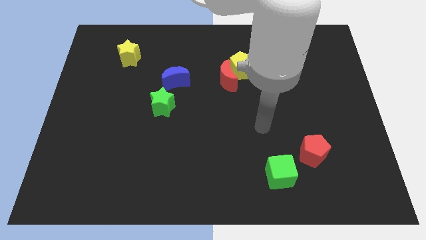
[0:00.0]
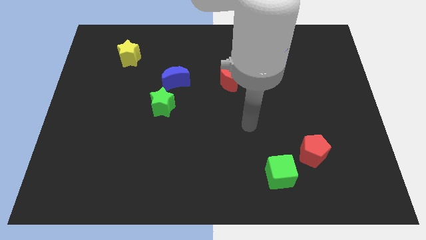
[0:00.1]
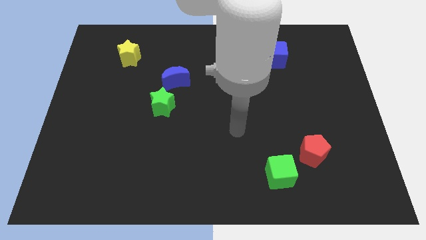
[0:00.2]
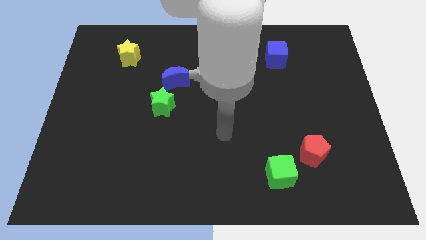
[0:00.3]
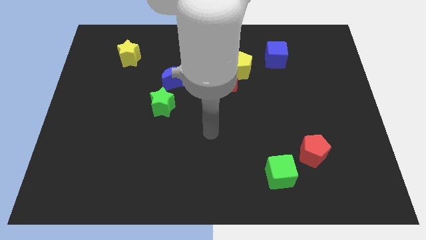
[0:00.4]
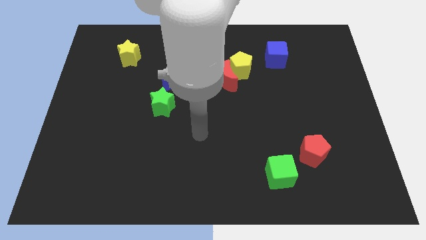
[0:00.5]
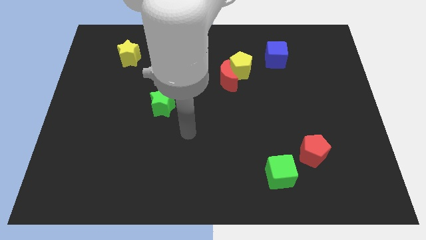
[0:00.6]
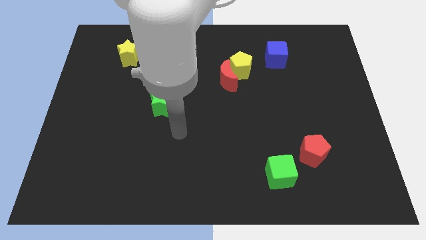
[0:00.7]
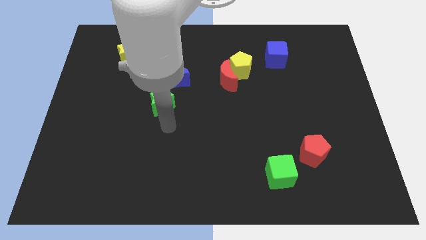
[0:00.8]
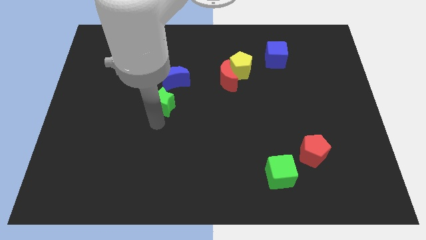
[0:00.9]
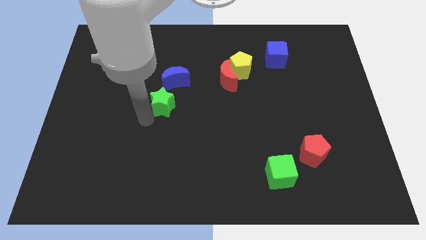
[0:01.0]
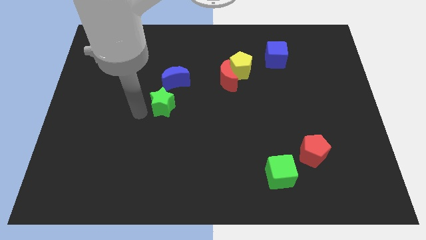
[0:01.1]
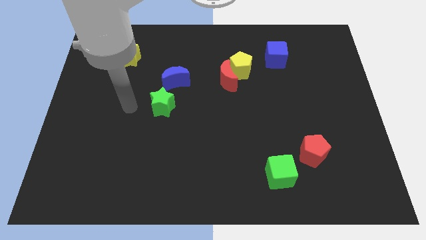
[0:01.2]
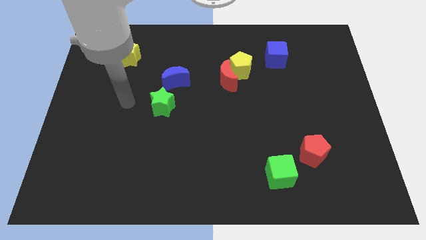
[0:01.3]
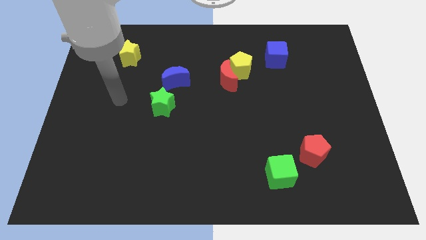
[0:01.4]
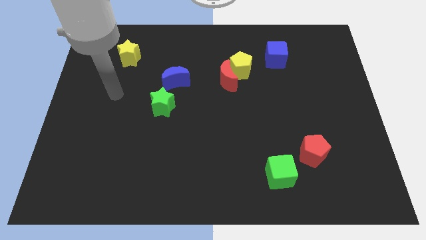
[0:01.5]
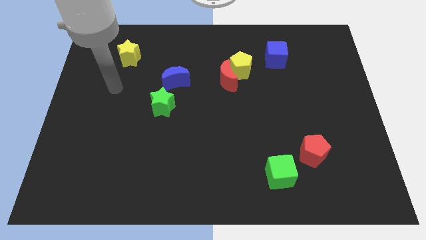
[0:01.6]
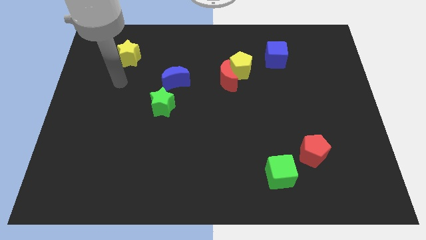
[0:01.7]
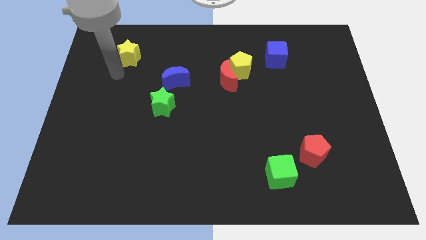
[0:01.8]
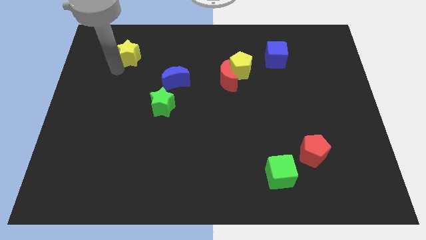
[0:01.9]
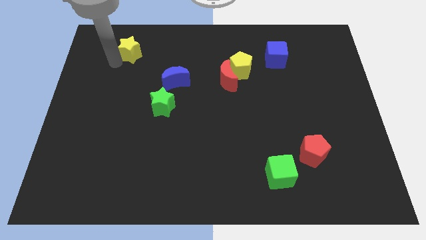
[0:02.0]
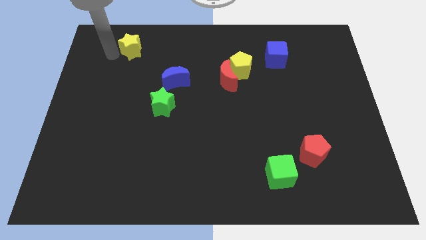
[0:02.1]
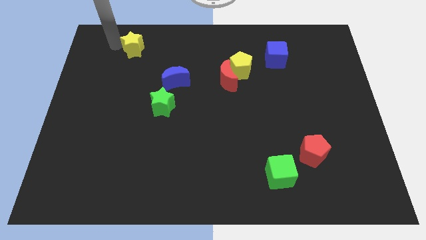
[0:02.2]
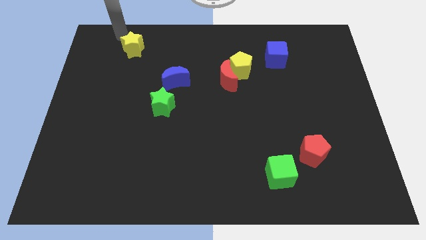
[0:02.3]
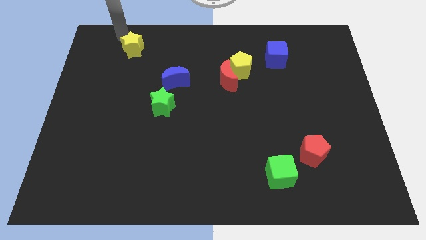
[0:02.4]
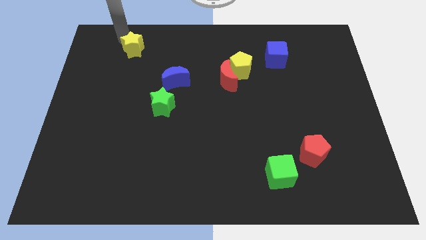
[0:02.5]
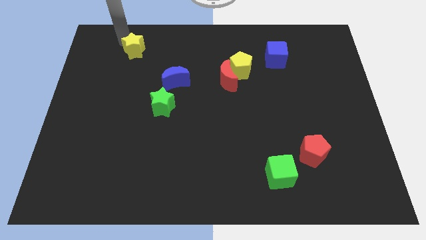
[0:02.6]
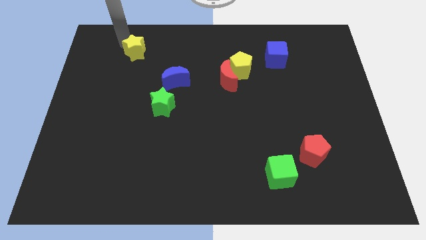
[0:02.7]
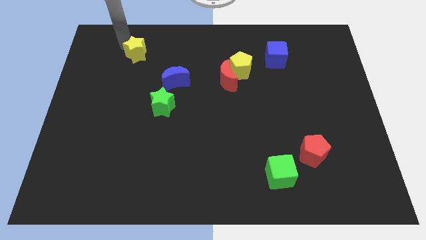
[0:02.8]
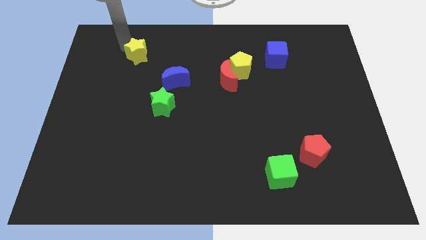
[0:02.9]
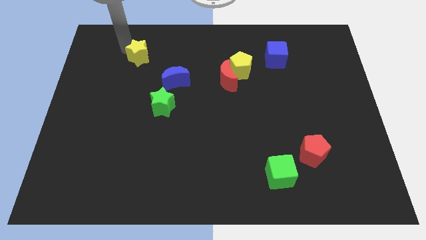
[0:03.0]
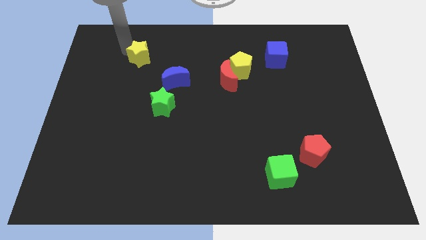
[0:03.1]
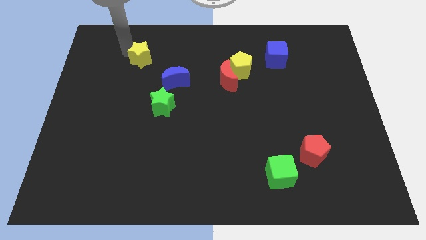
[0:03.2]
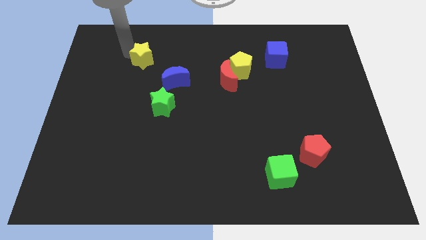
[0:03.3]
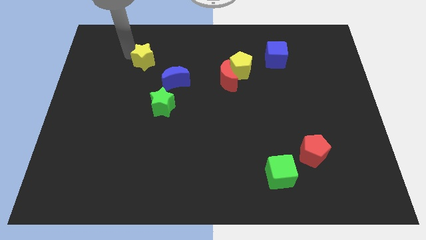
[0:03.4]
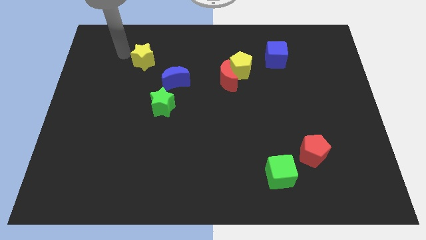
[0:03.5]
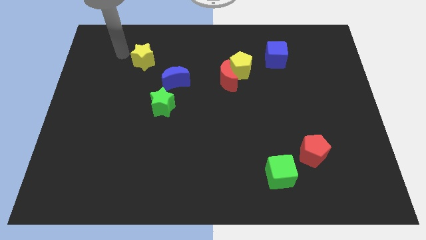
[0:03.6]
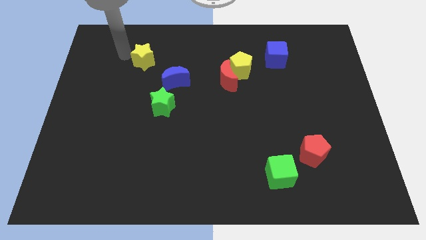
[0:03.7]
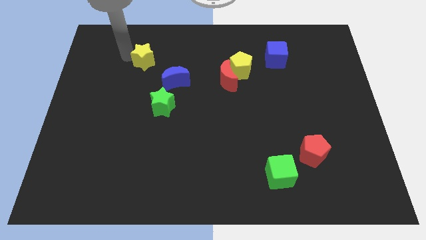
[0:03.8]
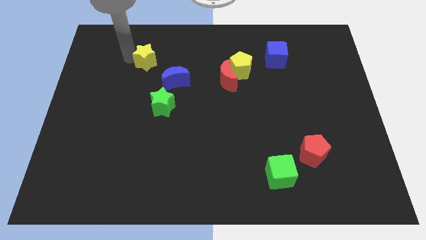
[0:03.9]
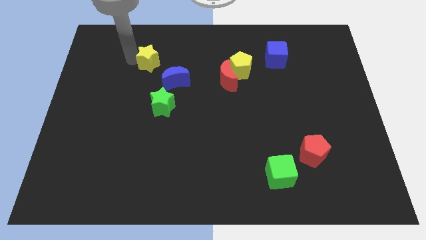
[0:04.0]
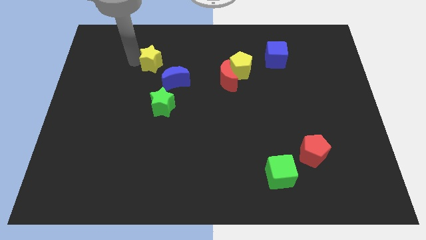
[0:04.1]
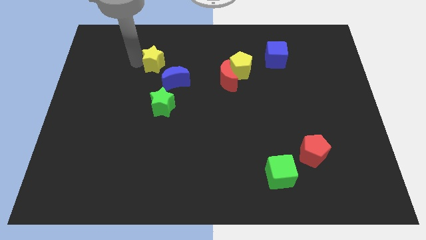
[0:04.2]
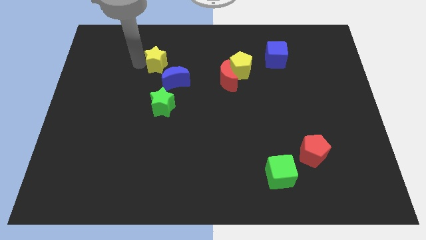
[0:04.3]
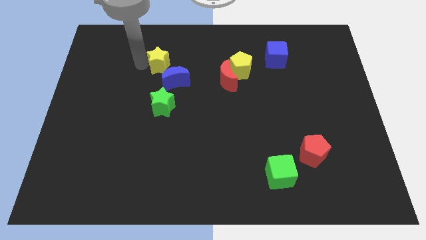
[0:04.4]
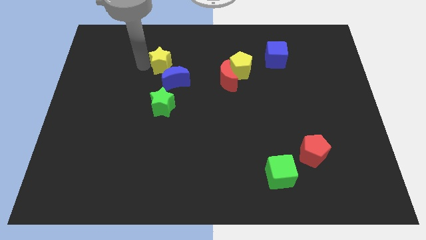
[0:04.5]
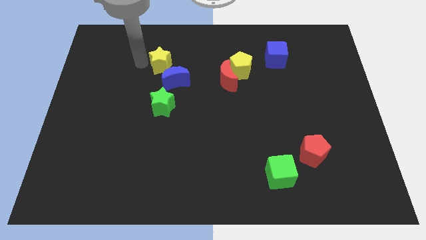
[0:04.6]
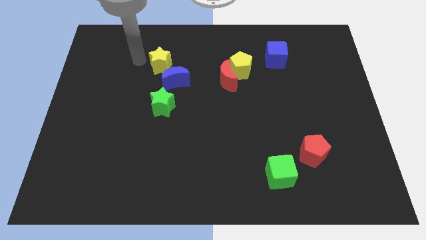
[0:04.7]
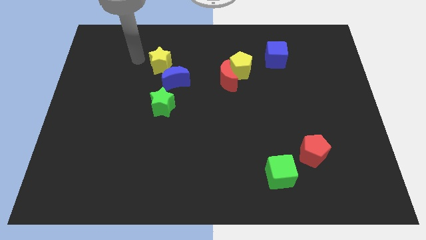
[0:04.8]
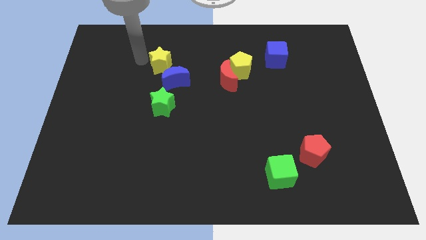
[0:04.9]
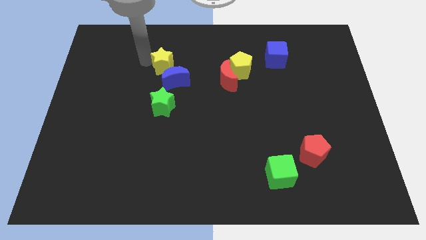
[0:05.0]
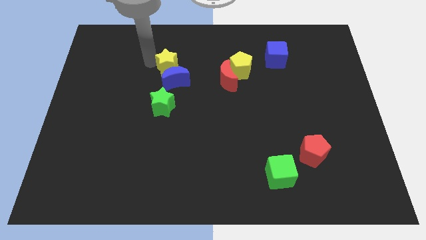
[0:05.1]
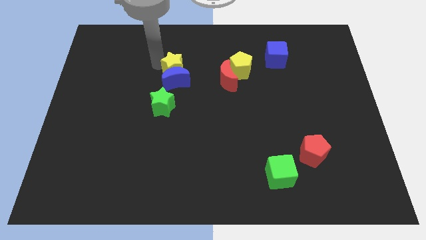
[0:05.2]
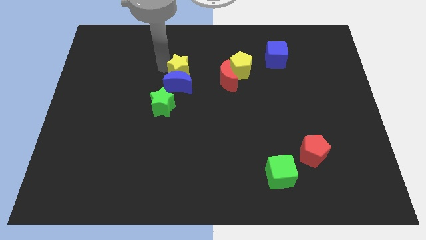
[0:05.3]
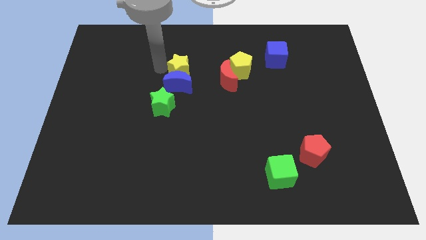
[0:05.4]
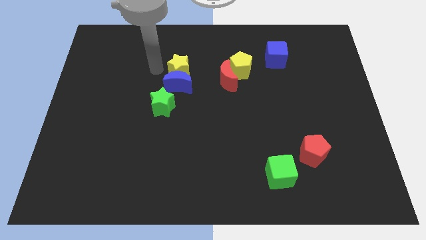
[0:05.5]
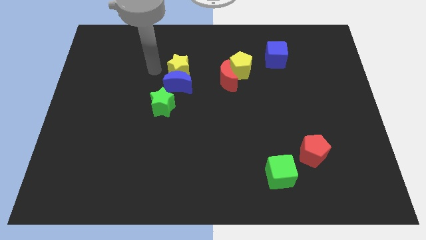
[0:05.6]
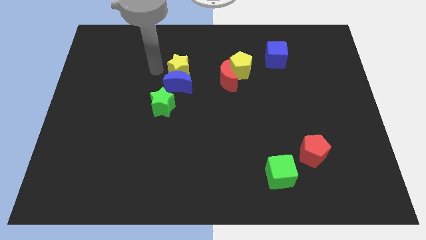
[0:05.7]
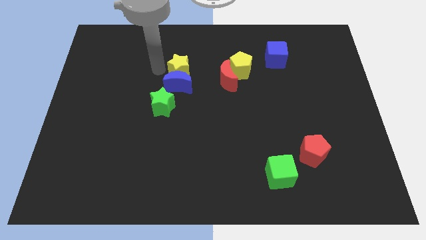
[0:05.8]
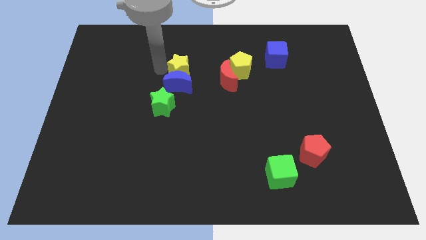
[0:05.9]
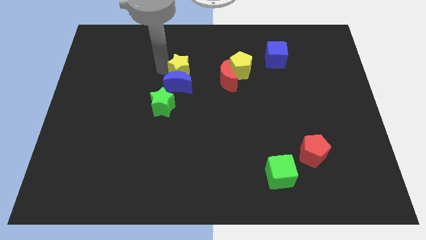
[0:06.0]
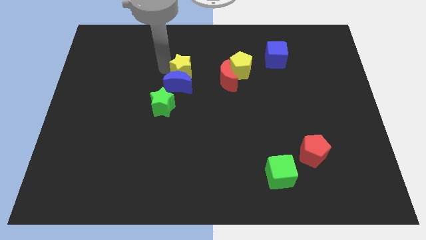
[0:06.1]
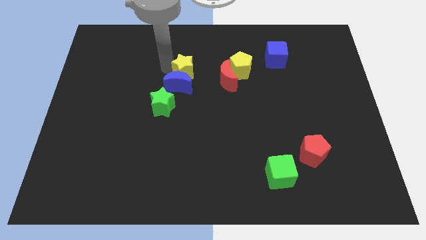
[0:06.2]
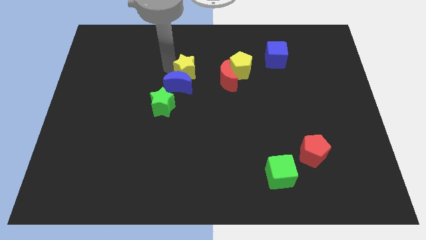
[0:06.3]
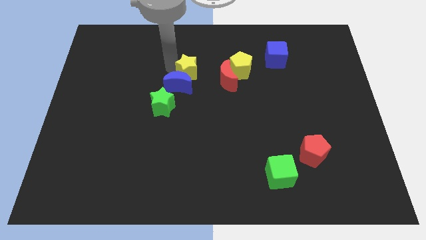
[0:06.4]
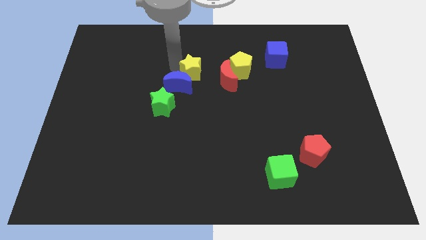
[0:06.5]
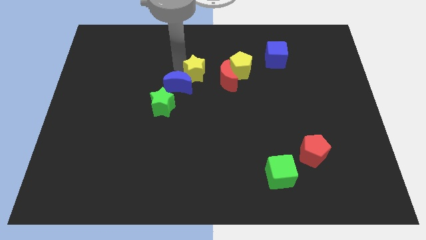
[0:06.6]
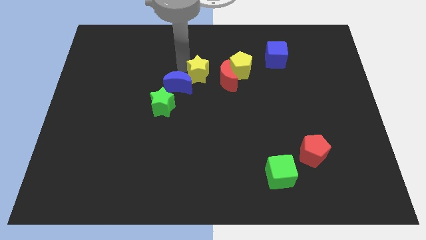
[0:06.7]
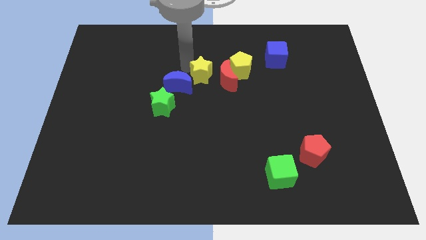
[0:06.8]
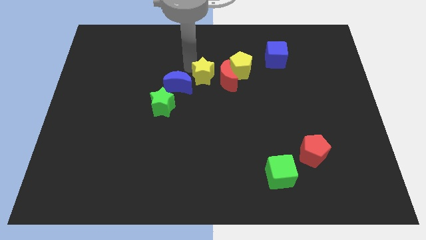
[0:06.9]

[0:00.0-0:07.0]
move the yellow star next to the red moon
